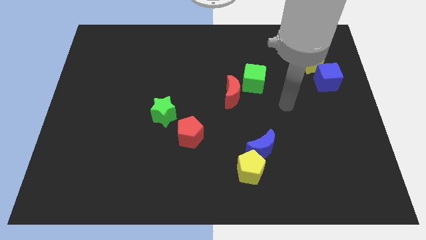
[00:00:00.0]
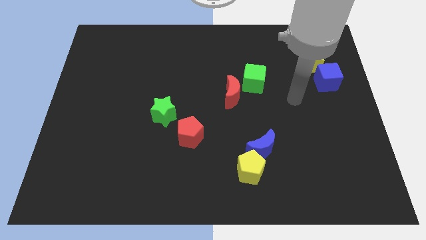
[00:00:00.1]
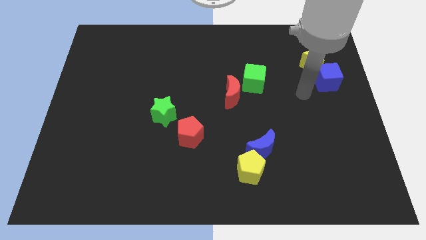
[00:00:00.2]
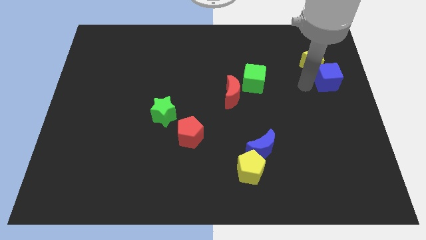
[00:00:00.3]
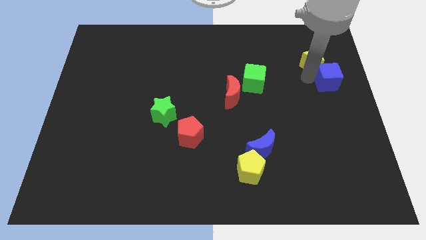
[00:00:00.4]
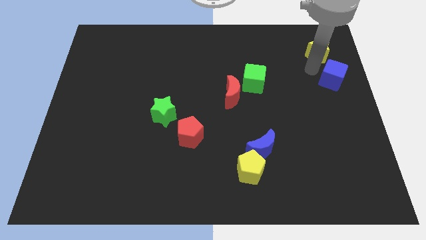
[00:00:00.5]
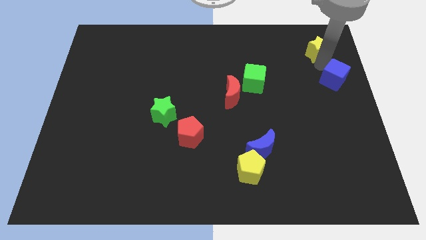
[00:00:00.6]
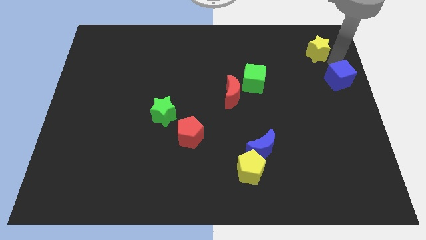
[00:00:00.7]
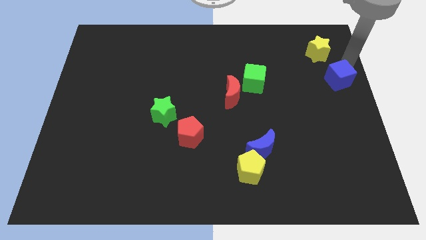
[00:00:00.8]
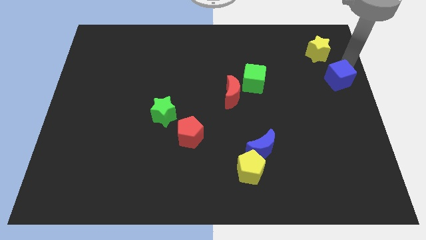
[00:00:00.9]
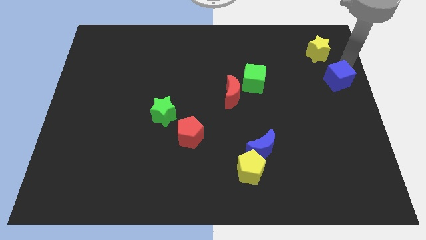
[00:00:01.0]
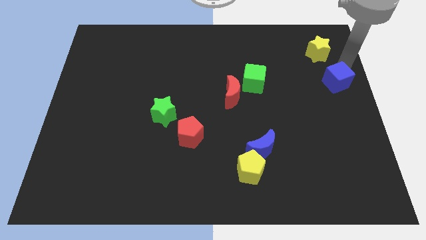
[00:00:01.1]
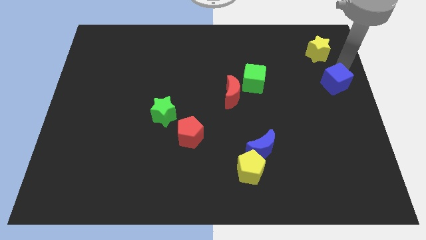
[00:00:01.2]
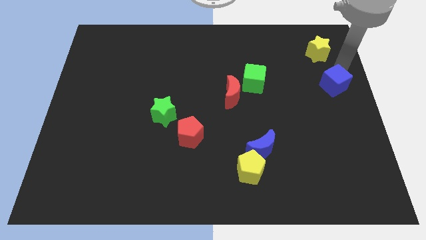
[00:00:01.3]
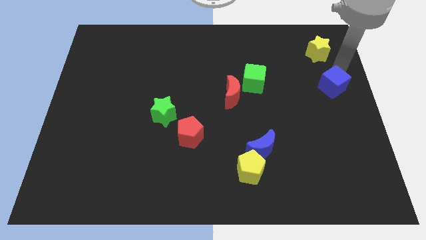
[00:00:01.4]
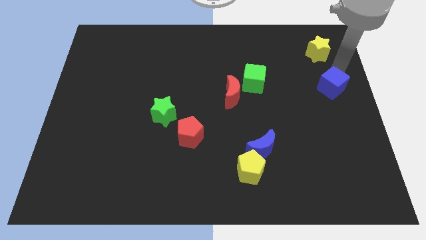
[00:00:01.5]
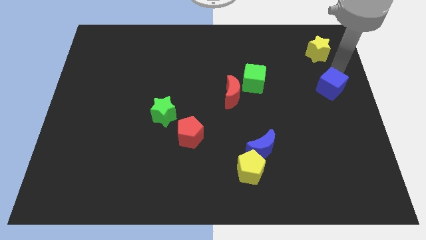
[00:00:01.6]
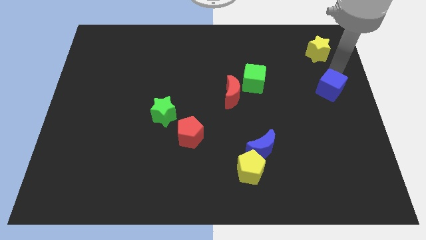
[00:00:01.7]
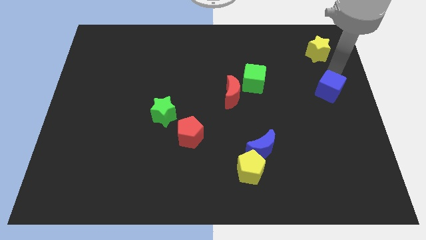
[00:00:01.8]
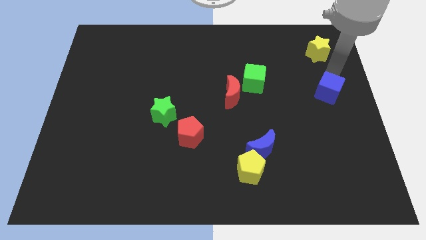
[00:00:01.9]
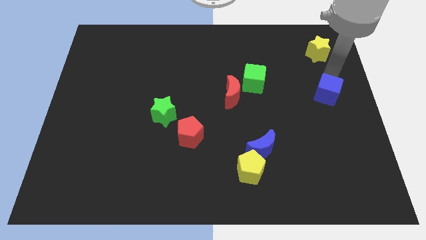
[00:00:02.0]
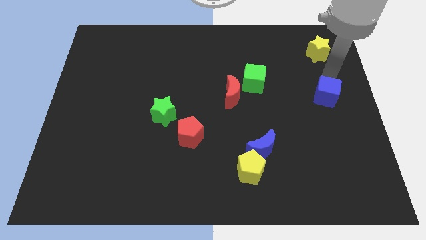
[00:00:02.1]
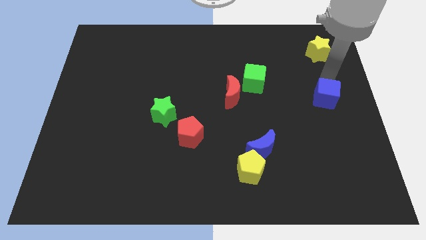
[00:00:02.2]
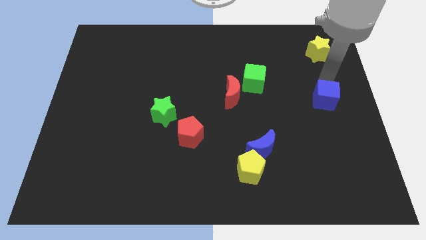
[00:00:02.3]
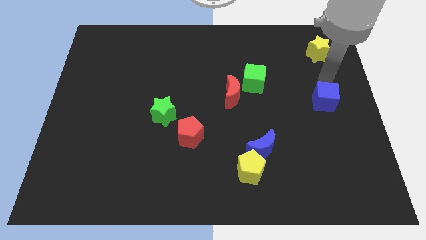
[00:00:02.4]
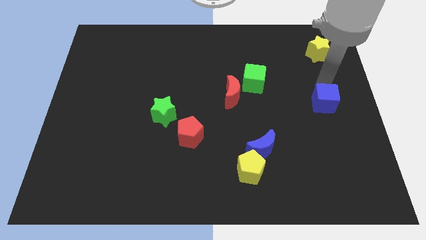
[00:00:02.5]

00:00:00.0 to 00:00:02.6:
push the blue cube slightly downwards

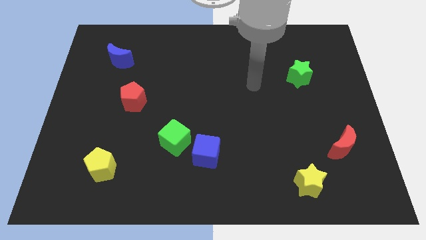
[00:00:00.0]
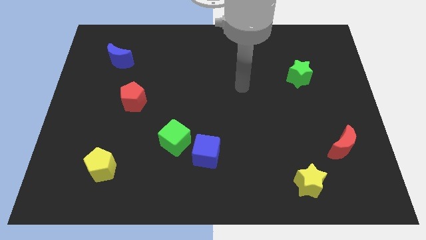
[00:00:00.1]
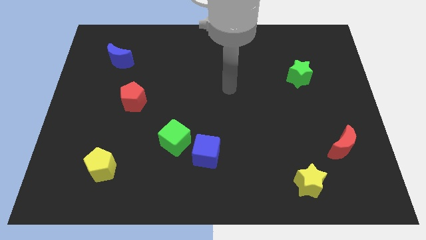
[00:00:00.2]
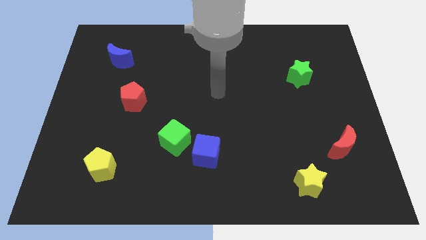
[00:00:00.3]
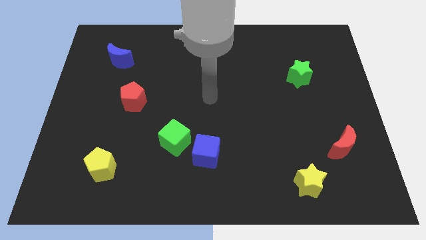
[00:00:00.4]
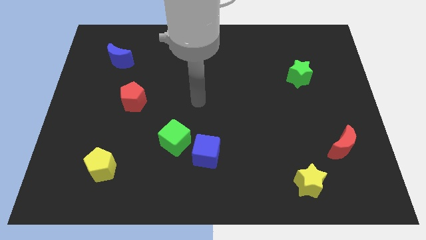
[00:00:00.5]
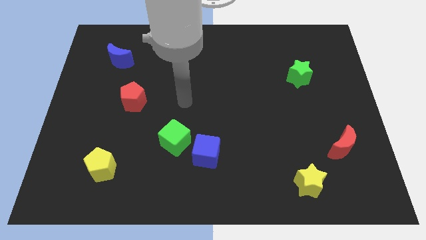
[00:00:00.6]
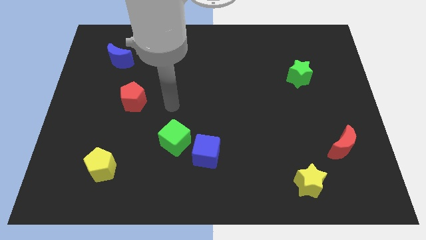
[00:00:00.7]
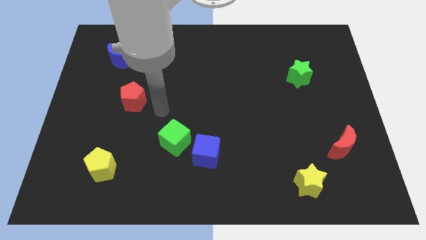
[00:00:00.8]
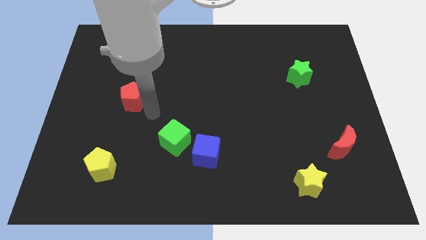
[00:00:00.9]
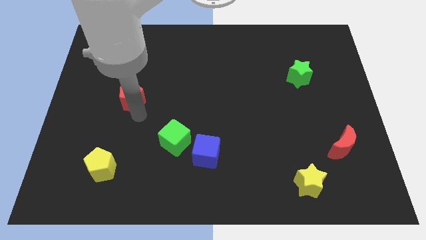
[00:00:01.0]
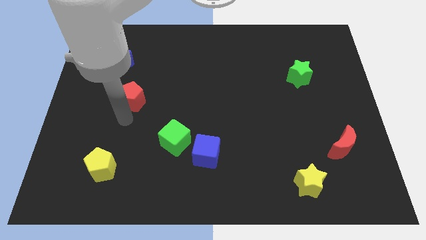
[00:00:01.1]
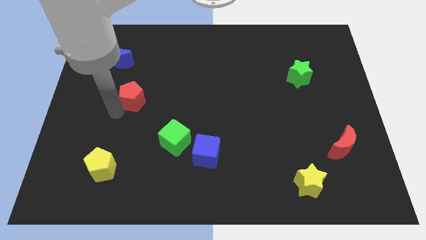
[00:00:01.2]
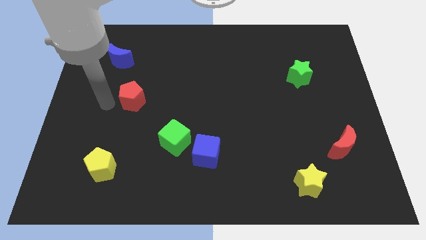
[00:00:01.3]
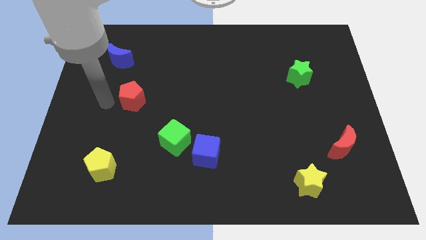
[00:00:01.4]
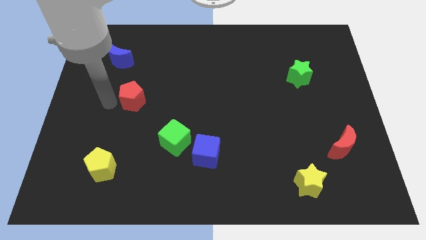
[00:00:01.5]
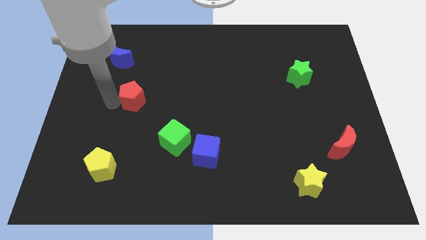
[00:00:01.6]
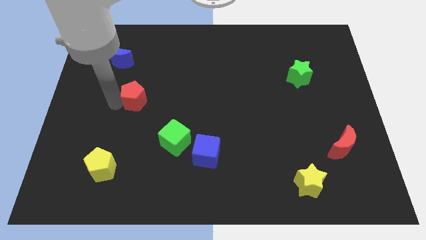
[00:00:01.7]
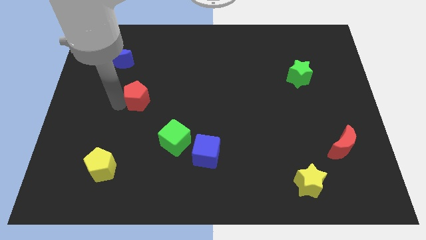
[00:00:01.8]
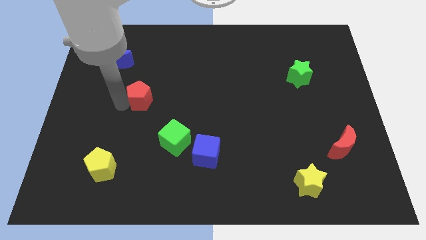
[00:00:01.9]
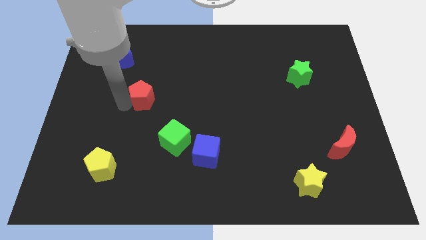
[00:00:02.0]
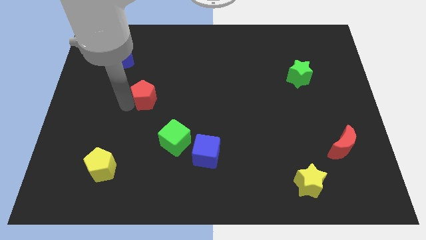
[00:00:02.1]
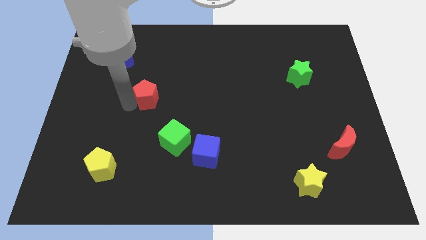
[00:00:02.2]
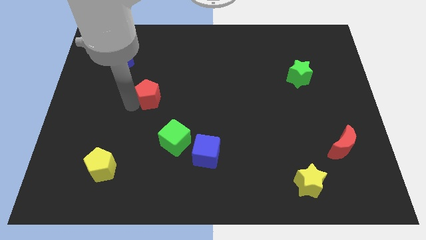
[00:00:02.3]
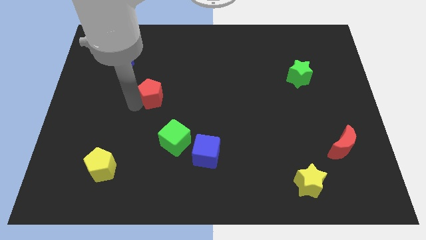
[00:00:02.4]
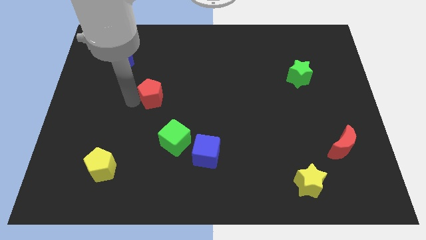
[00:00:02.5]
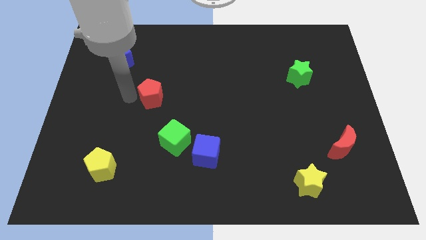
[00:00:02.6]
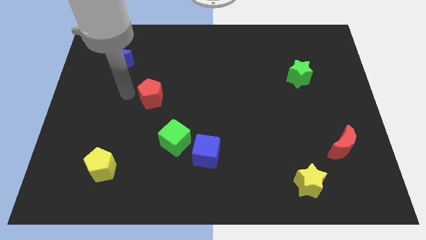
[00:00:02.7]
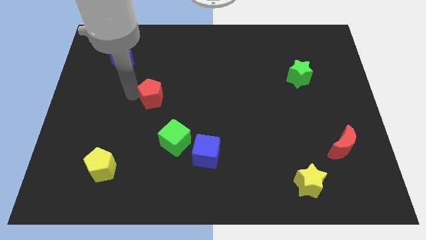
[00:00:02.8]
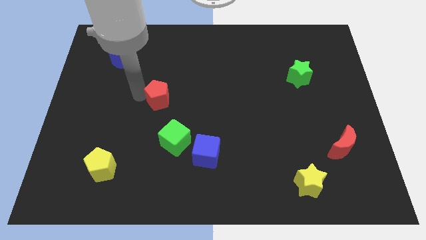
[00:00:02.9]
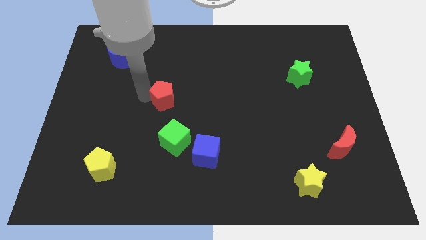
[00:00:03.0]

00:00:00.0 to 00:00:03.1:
push the red pentagon to the right a little

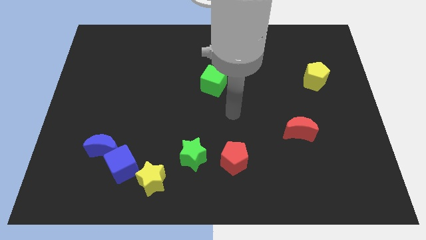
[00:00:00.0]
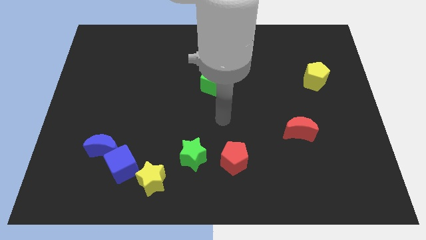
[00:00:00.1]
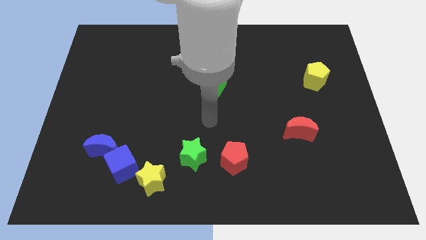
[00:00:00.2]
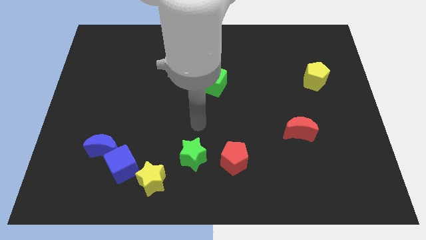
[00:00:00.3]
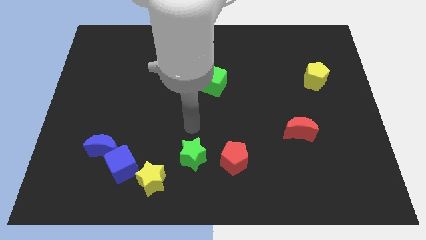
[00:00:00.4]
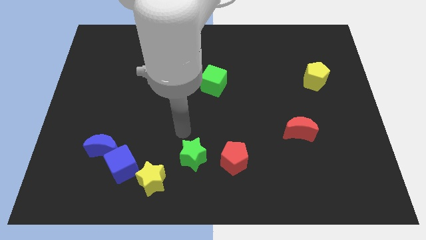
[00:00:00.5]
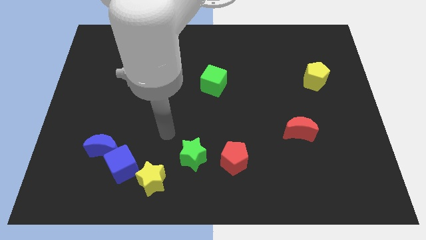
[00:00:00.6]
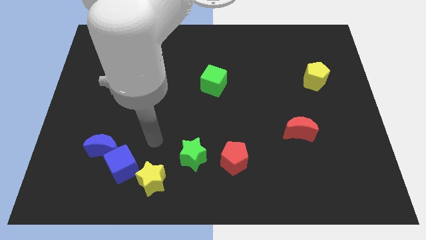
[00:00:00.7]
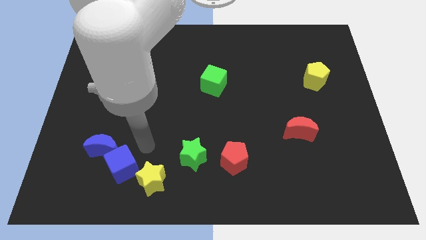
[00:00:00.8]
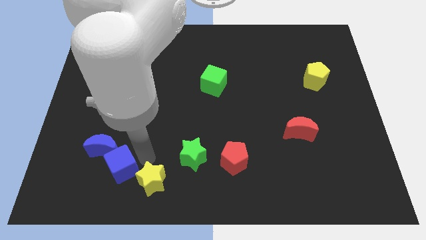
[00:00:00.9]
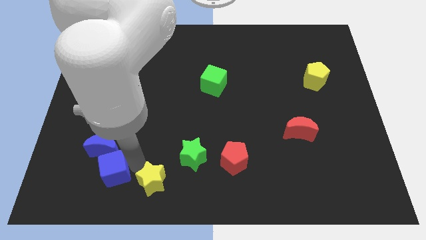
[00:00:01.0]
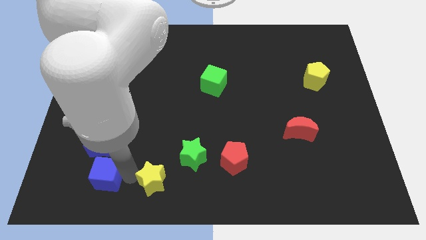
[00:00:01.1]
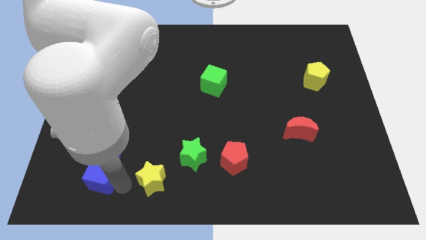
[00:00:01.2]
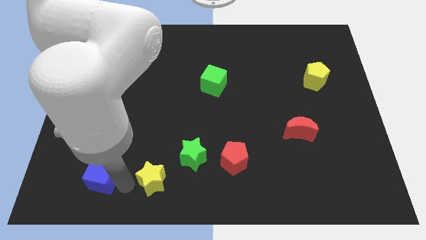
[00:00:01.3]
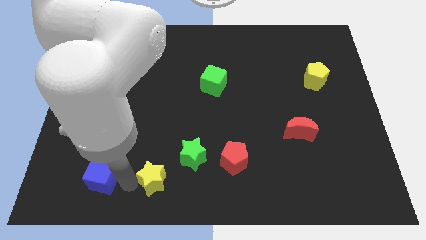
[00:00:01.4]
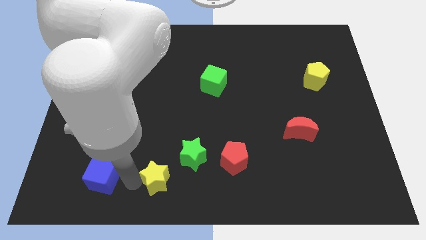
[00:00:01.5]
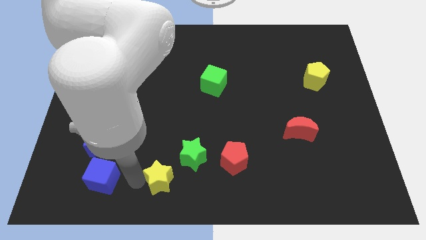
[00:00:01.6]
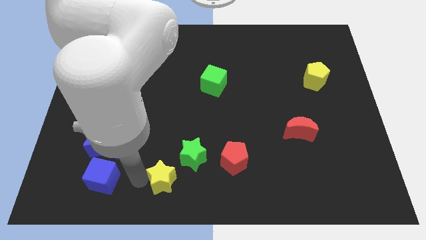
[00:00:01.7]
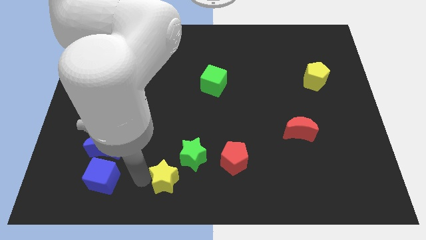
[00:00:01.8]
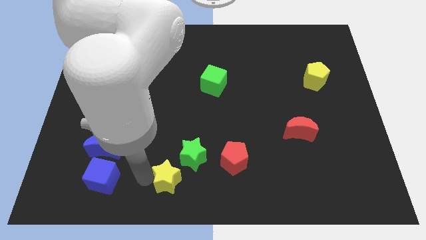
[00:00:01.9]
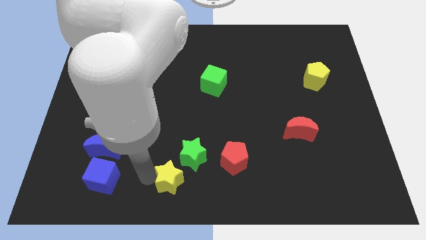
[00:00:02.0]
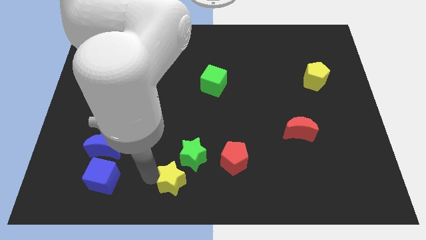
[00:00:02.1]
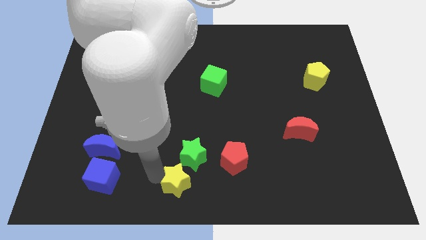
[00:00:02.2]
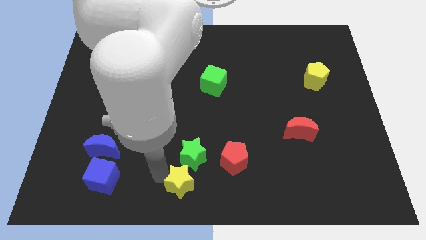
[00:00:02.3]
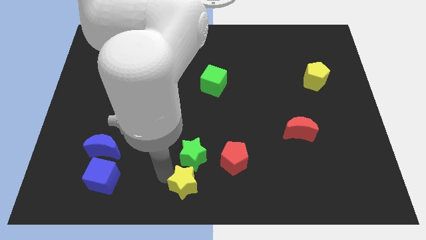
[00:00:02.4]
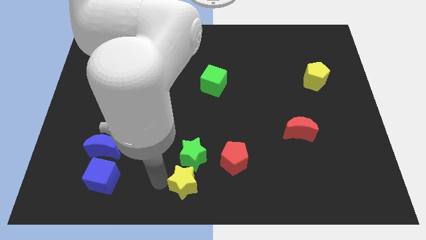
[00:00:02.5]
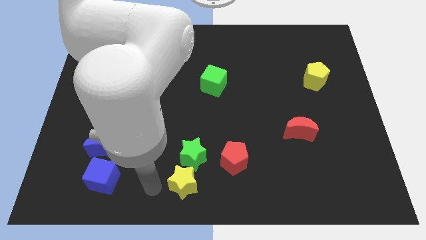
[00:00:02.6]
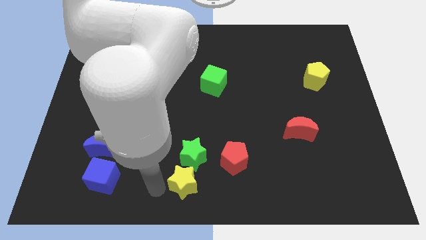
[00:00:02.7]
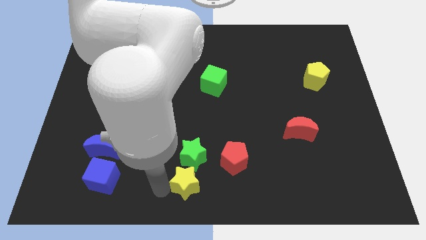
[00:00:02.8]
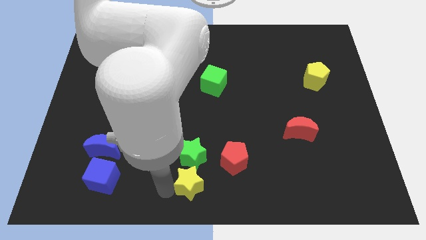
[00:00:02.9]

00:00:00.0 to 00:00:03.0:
push the yellow star to the right a bit
